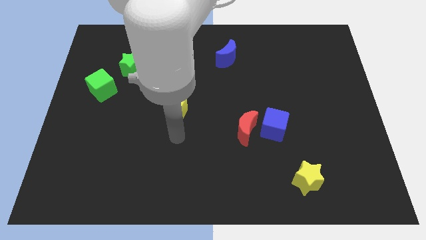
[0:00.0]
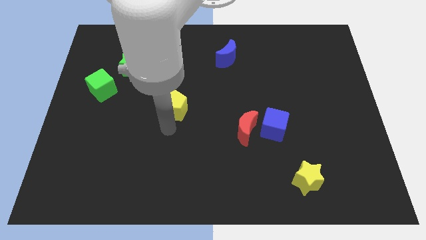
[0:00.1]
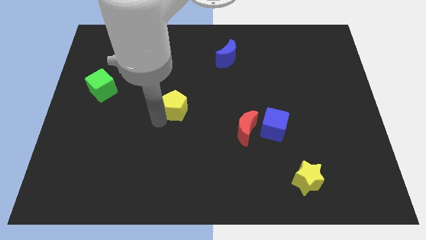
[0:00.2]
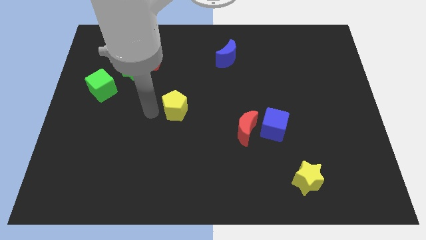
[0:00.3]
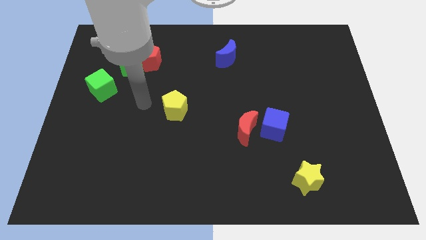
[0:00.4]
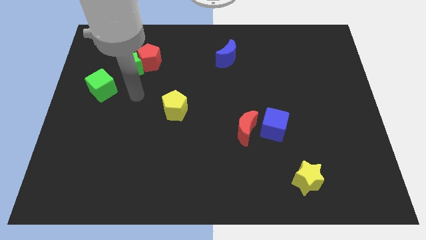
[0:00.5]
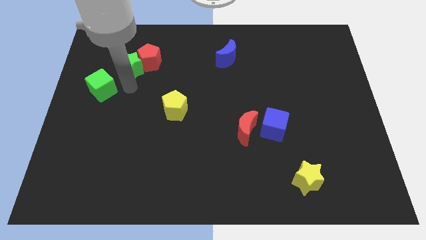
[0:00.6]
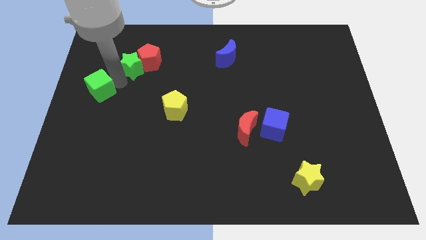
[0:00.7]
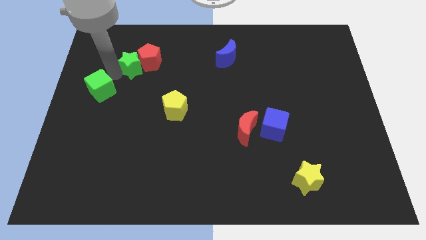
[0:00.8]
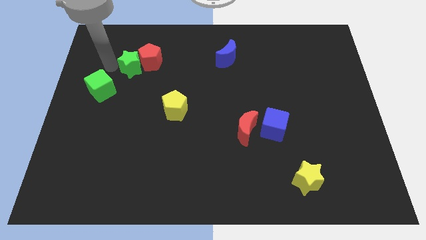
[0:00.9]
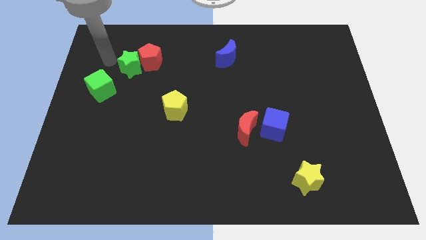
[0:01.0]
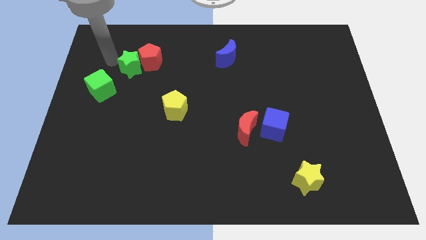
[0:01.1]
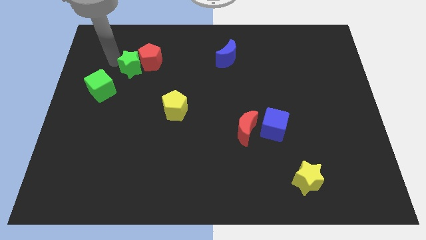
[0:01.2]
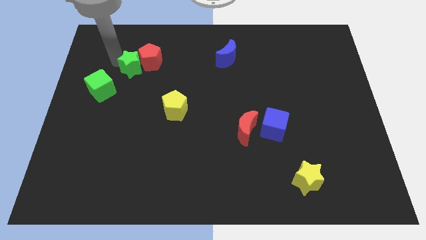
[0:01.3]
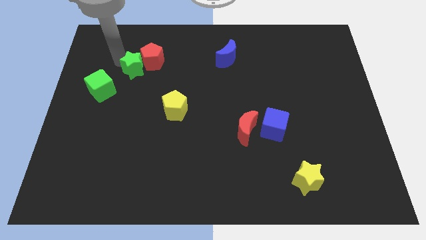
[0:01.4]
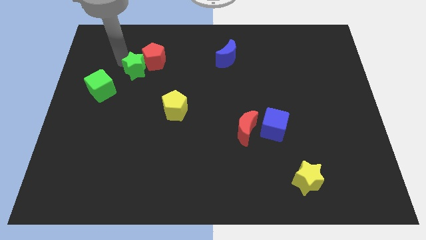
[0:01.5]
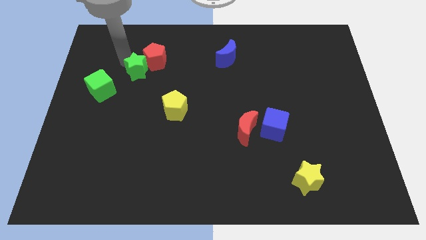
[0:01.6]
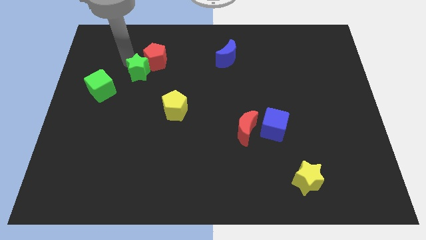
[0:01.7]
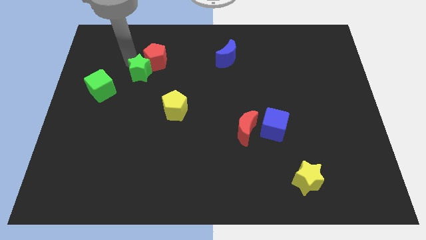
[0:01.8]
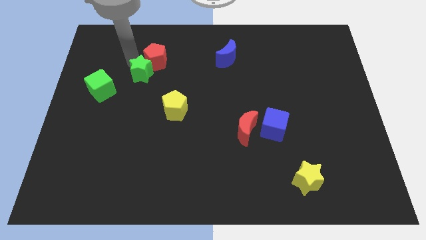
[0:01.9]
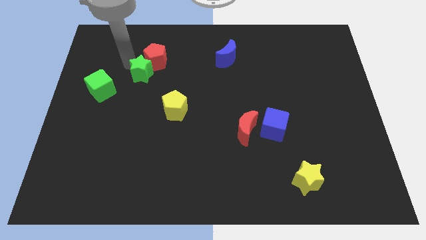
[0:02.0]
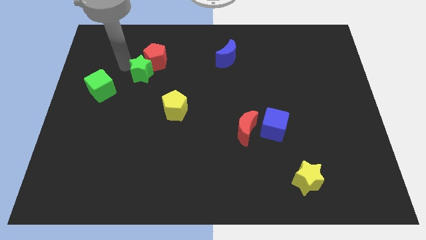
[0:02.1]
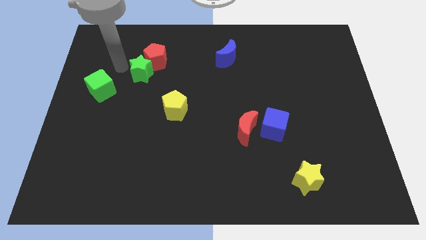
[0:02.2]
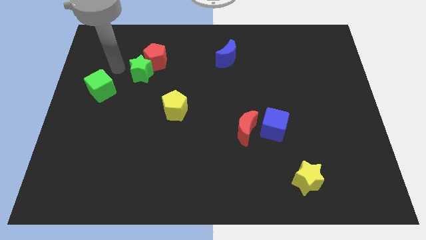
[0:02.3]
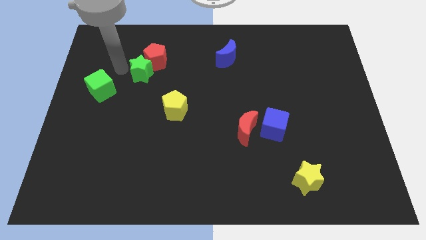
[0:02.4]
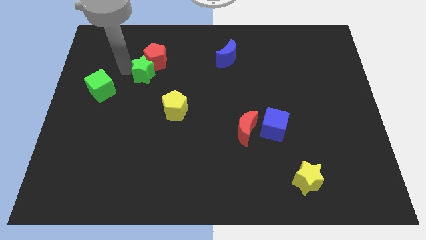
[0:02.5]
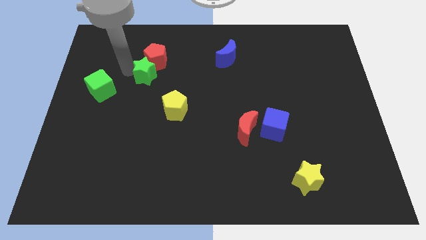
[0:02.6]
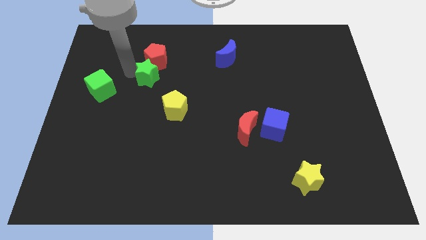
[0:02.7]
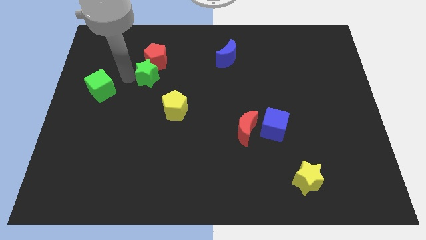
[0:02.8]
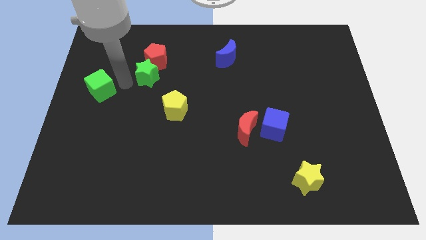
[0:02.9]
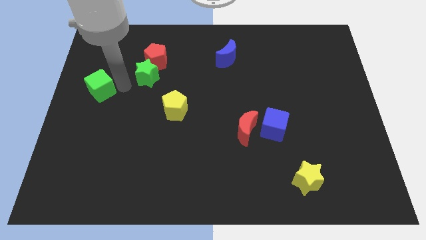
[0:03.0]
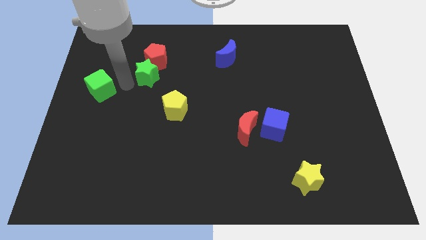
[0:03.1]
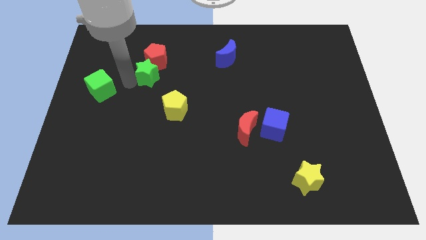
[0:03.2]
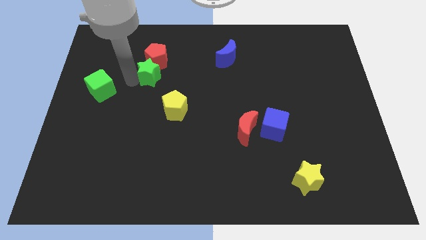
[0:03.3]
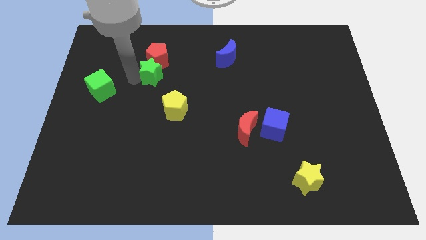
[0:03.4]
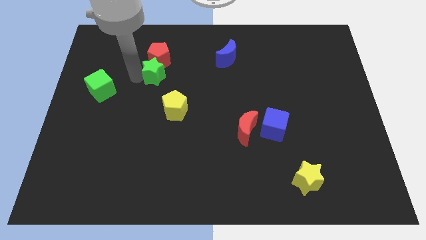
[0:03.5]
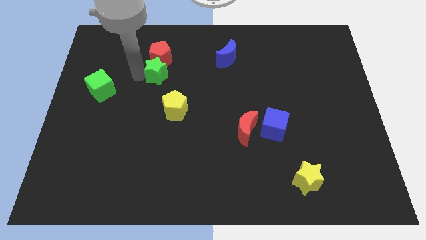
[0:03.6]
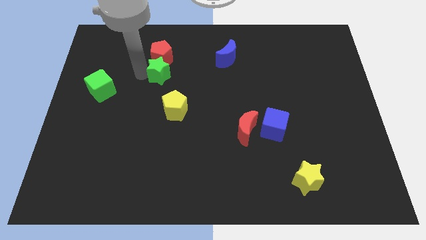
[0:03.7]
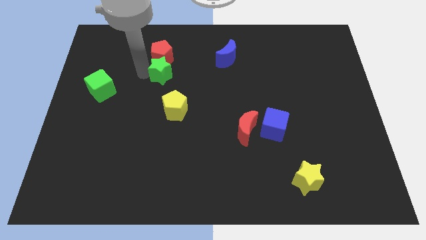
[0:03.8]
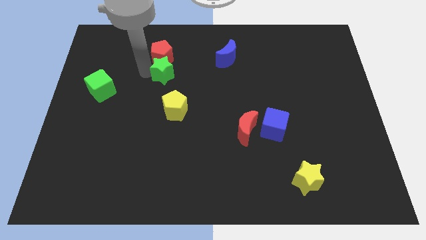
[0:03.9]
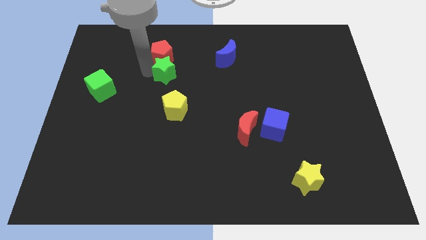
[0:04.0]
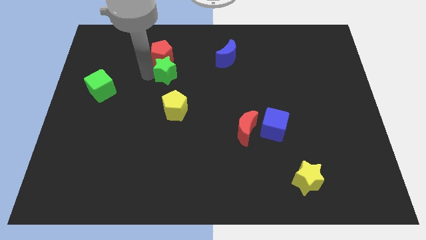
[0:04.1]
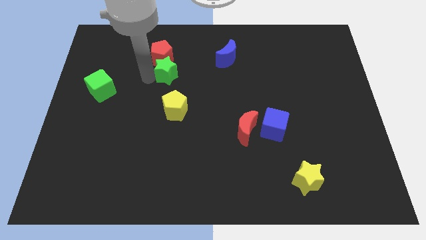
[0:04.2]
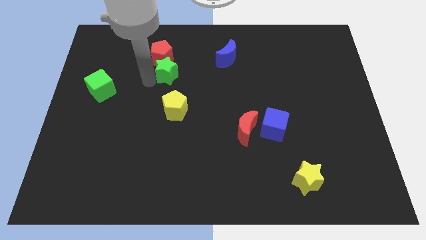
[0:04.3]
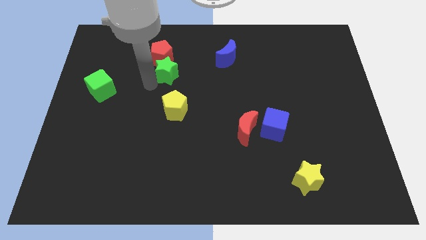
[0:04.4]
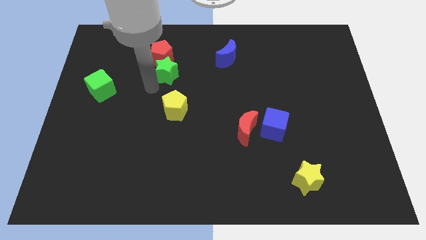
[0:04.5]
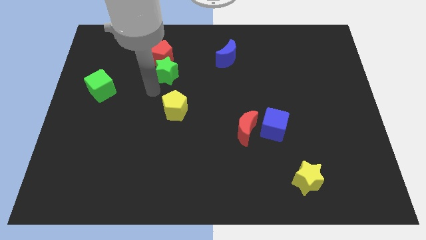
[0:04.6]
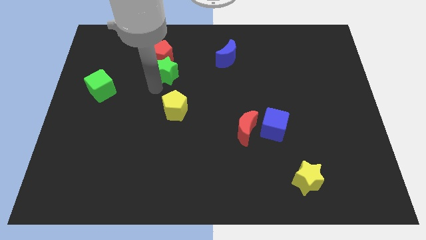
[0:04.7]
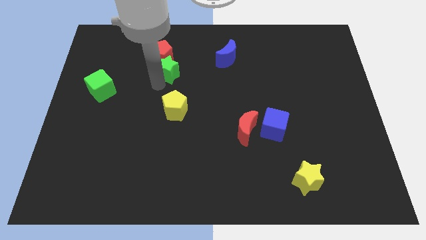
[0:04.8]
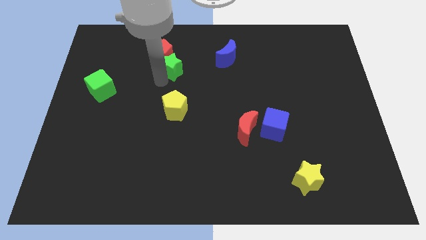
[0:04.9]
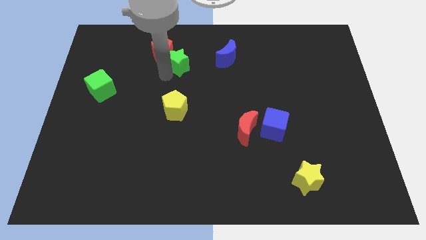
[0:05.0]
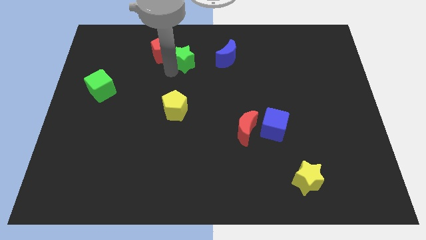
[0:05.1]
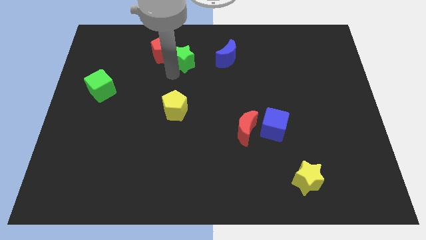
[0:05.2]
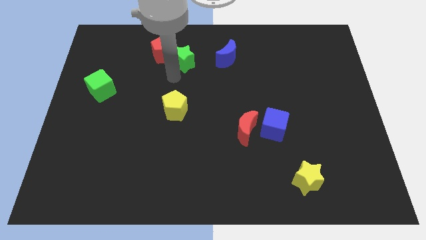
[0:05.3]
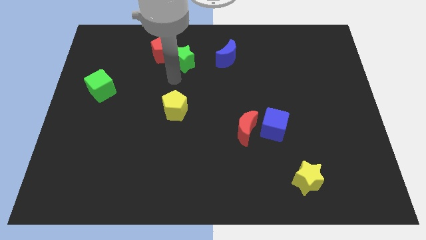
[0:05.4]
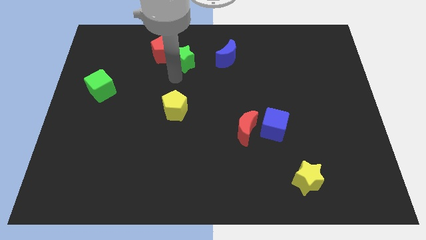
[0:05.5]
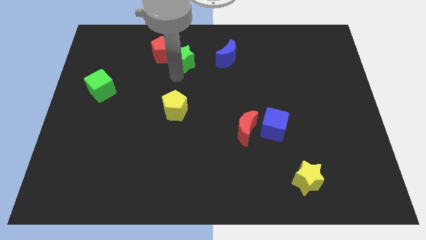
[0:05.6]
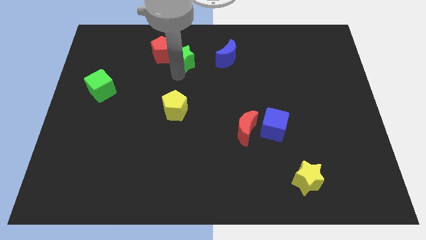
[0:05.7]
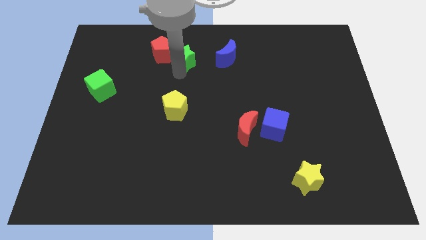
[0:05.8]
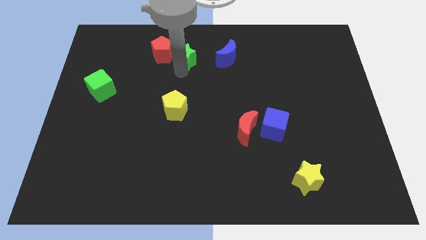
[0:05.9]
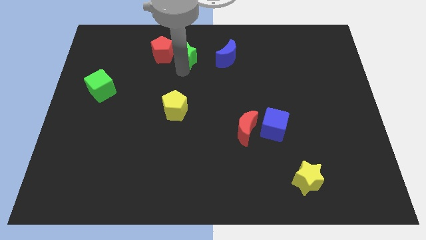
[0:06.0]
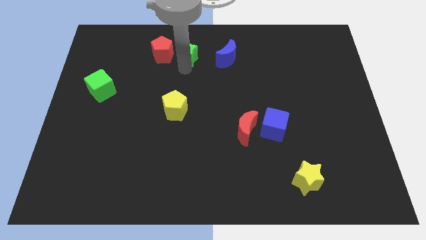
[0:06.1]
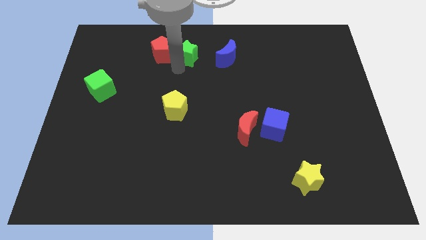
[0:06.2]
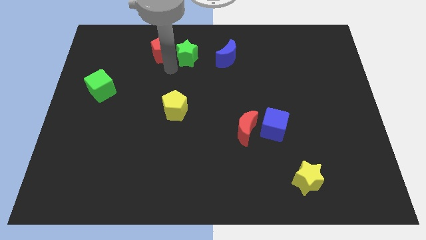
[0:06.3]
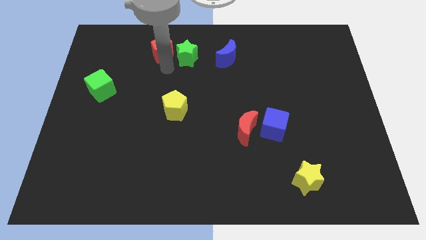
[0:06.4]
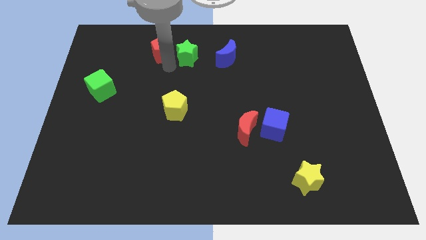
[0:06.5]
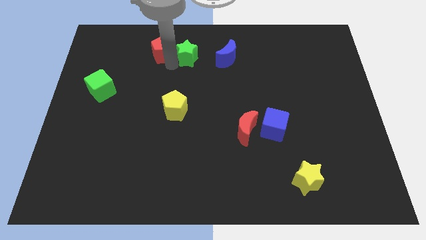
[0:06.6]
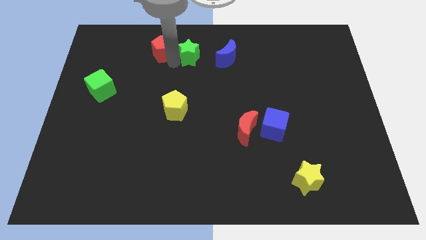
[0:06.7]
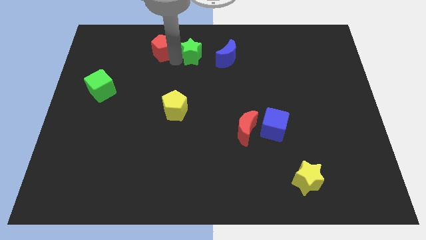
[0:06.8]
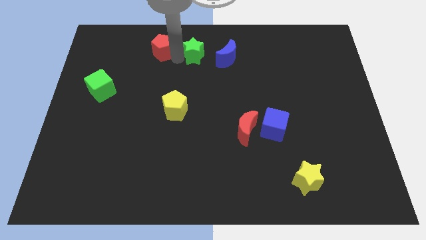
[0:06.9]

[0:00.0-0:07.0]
push the green star to the top
